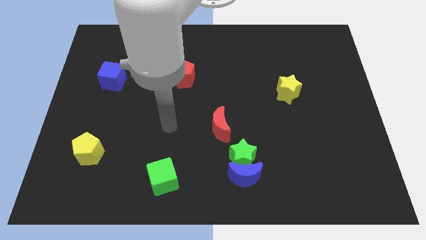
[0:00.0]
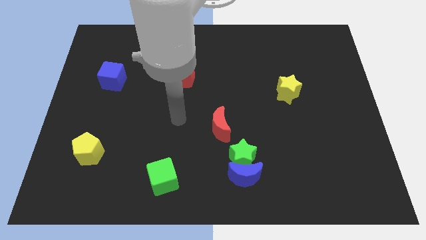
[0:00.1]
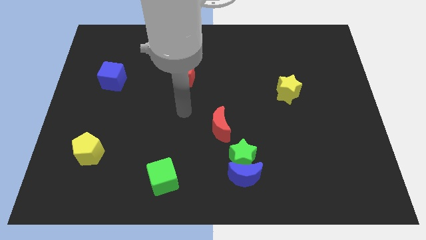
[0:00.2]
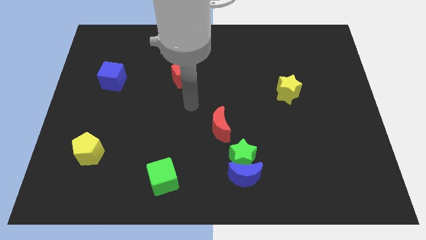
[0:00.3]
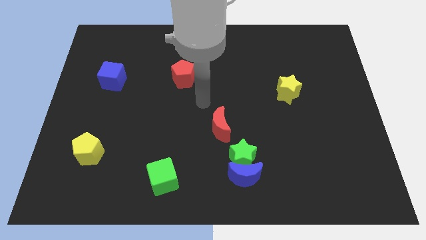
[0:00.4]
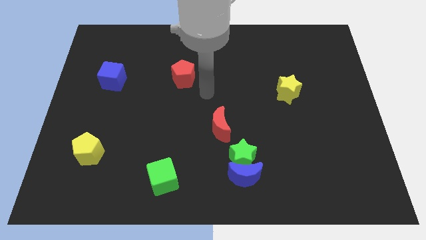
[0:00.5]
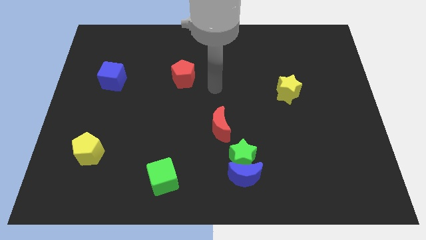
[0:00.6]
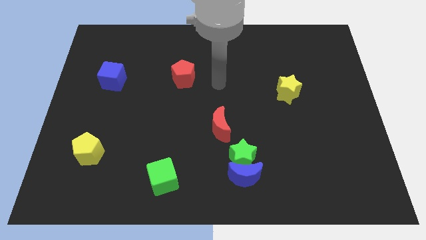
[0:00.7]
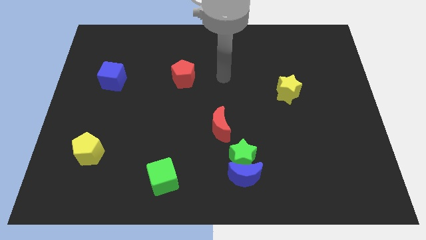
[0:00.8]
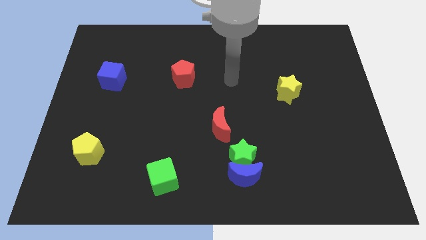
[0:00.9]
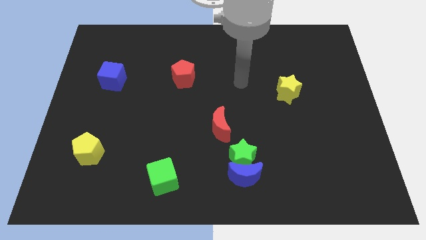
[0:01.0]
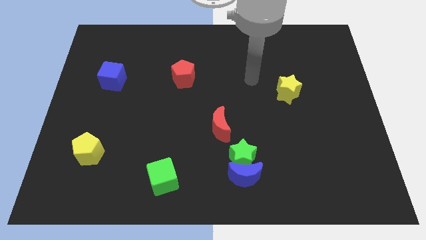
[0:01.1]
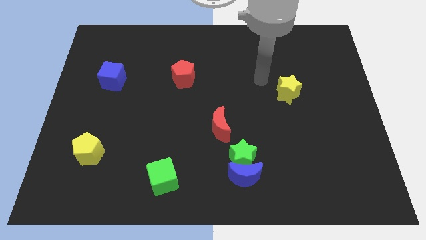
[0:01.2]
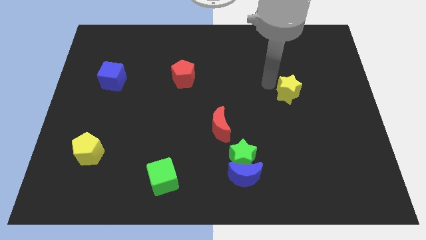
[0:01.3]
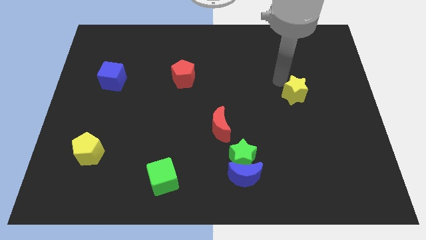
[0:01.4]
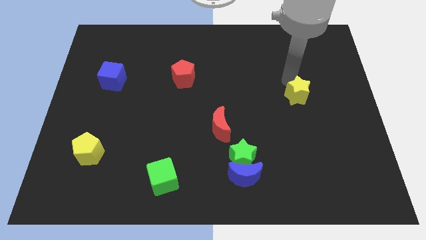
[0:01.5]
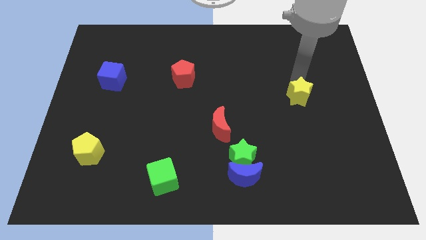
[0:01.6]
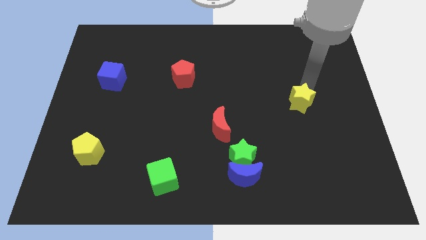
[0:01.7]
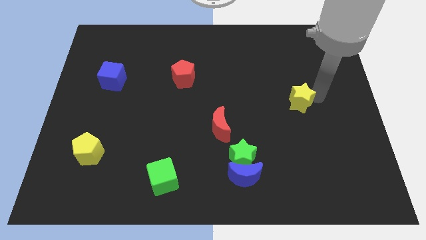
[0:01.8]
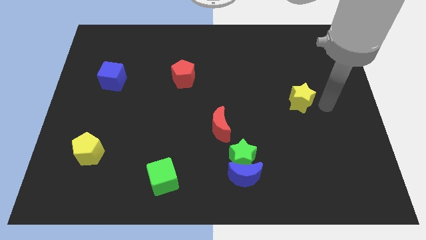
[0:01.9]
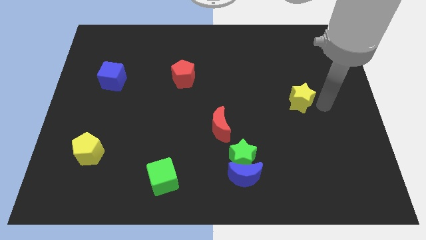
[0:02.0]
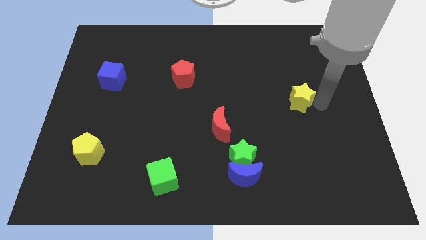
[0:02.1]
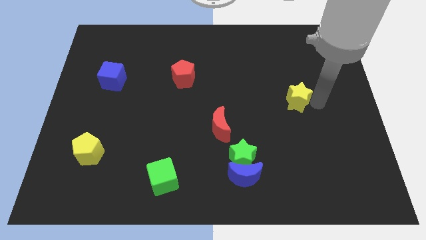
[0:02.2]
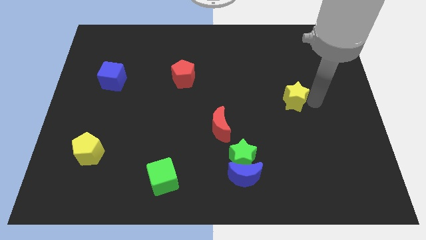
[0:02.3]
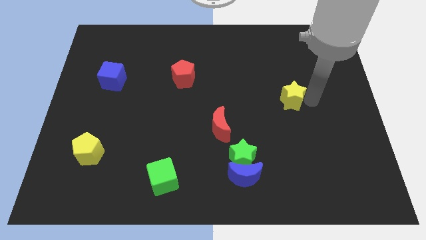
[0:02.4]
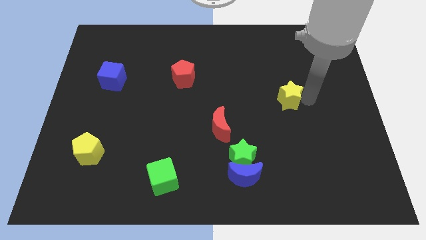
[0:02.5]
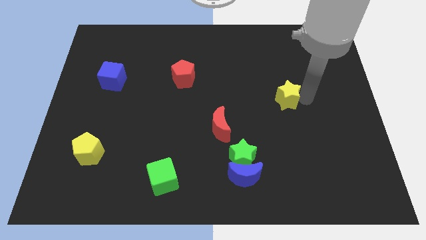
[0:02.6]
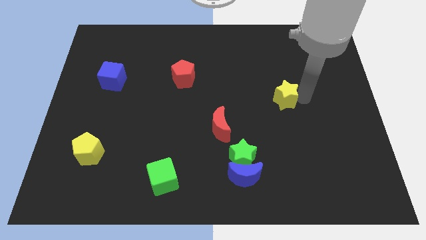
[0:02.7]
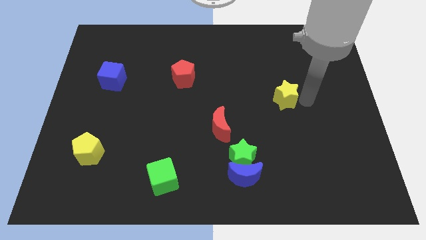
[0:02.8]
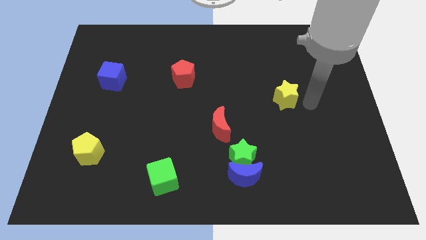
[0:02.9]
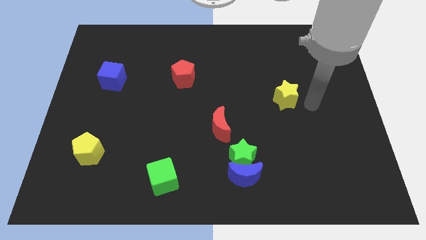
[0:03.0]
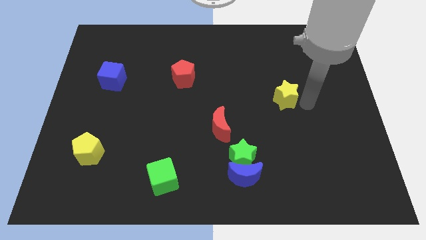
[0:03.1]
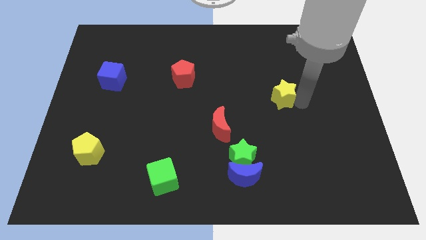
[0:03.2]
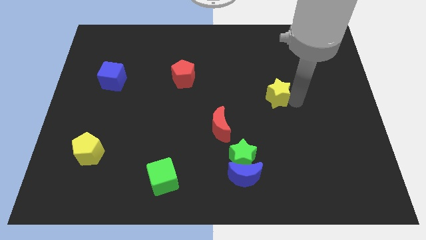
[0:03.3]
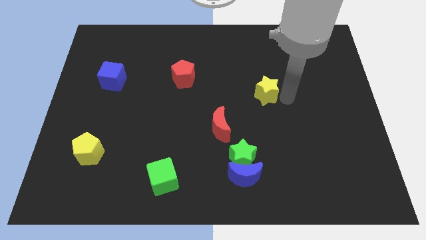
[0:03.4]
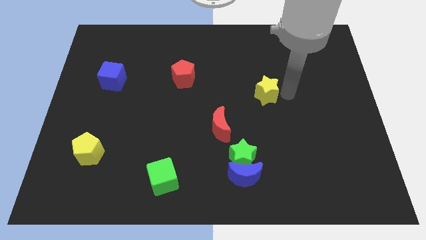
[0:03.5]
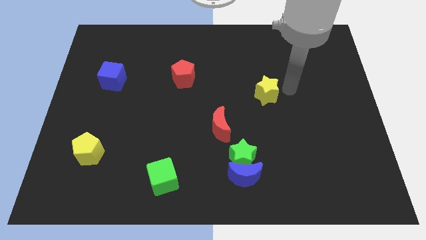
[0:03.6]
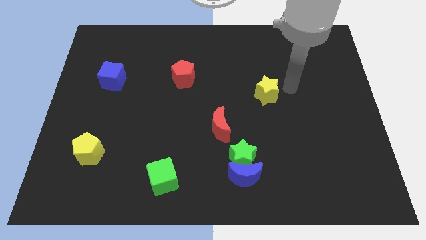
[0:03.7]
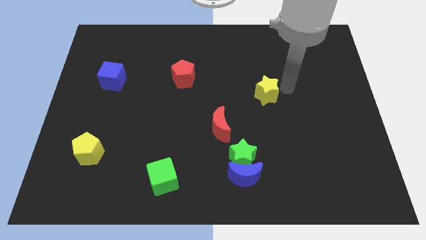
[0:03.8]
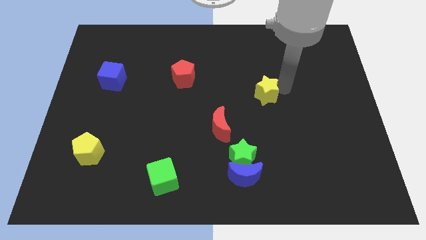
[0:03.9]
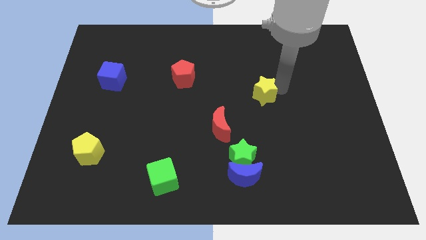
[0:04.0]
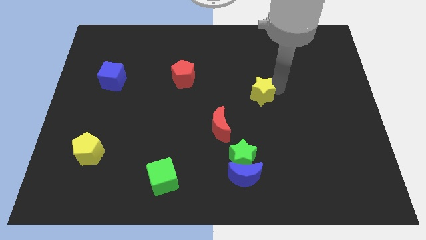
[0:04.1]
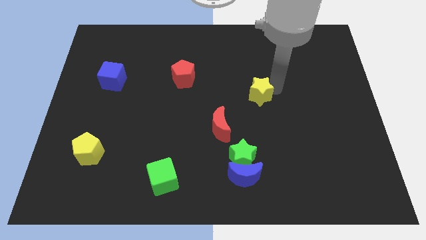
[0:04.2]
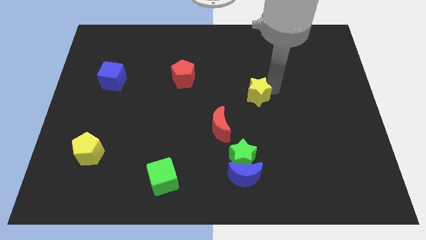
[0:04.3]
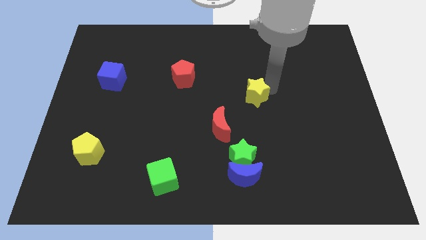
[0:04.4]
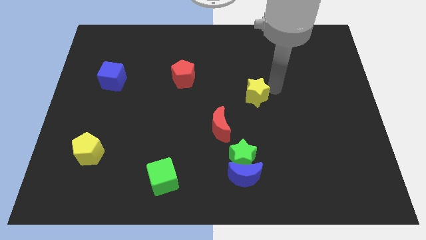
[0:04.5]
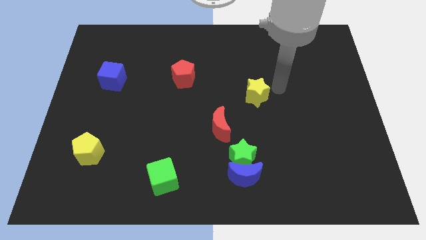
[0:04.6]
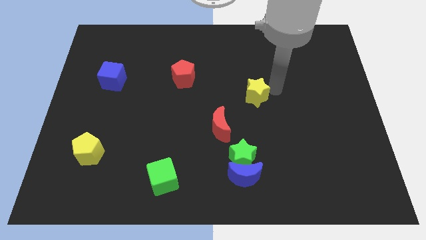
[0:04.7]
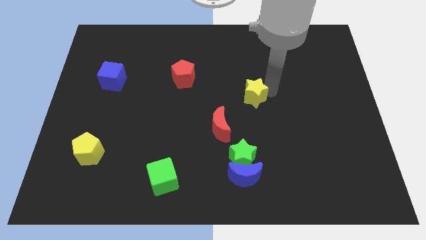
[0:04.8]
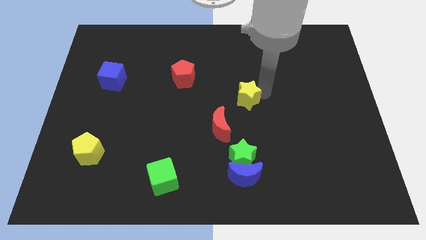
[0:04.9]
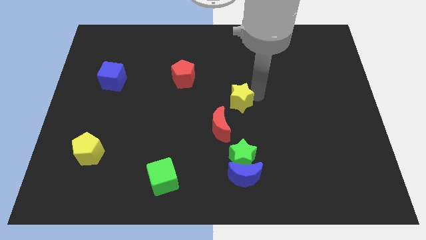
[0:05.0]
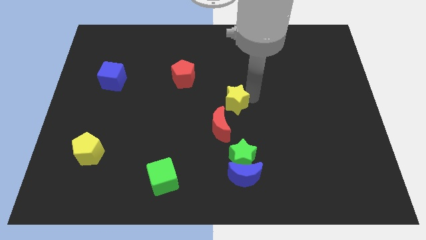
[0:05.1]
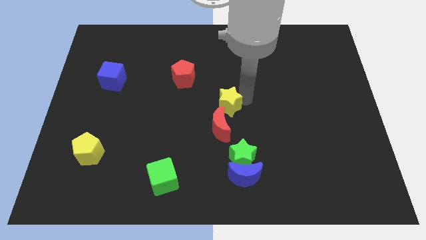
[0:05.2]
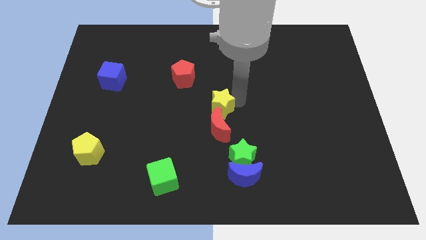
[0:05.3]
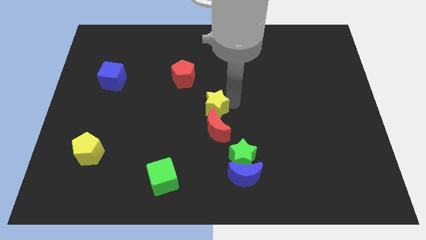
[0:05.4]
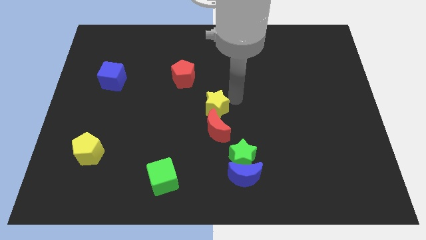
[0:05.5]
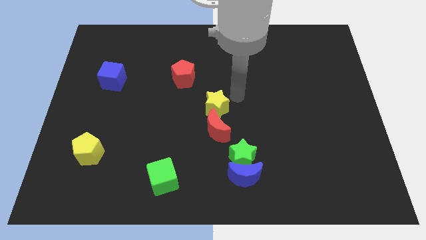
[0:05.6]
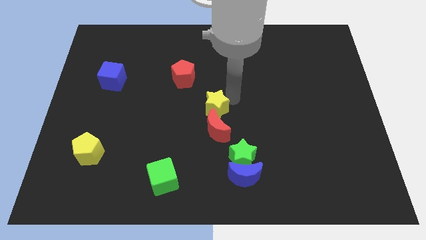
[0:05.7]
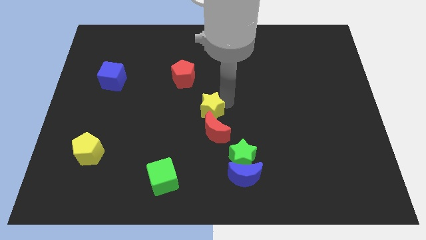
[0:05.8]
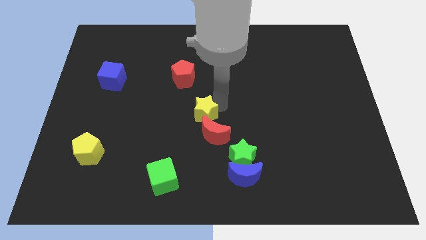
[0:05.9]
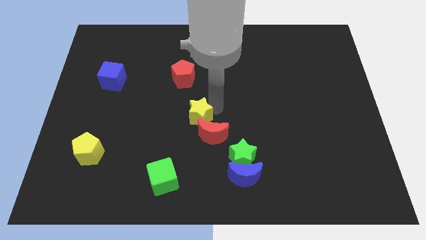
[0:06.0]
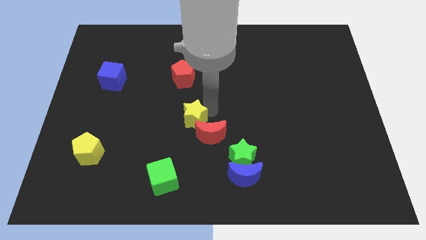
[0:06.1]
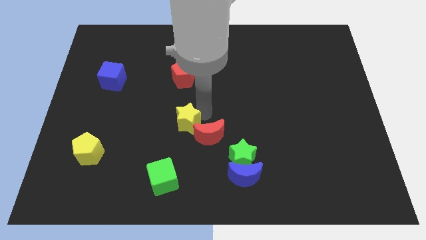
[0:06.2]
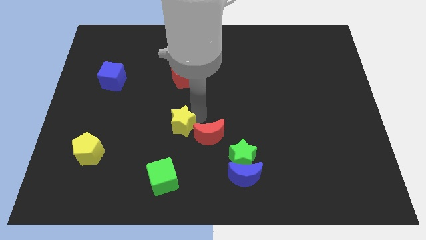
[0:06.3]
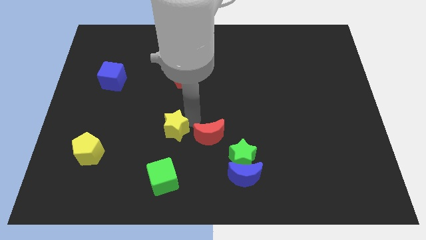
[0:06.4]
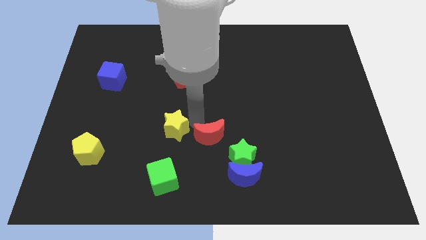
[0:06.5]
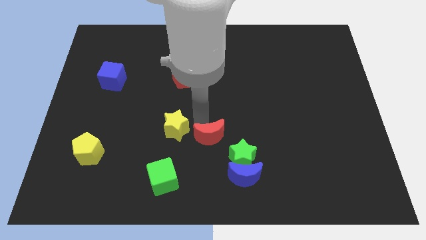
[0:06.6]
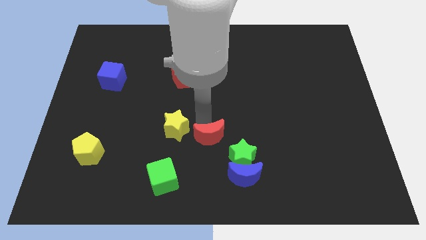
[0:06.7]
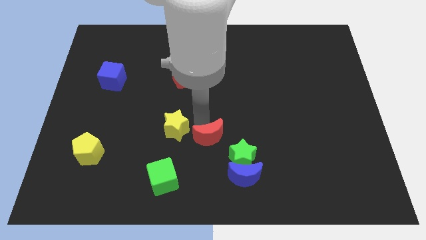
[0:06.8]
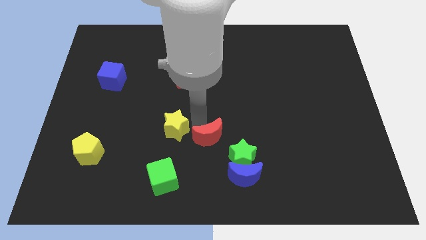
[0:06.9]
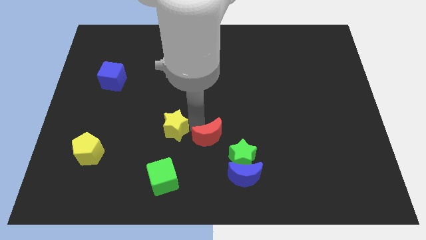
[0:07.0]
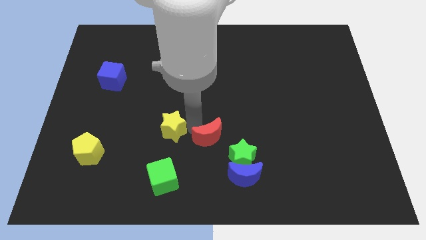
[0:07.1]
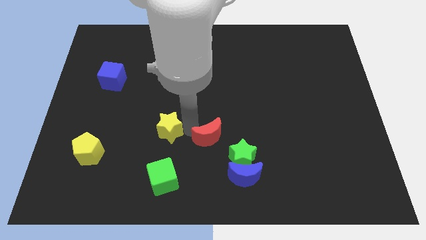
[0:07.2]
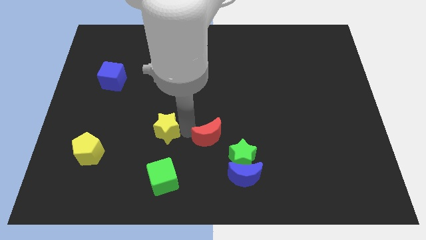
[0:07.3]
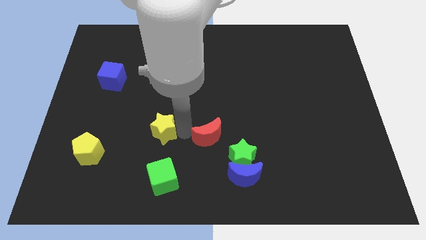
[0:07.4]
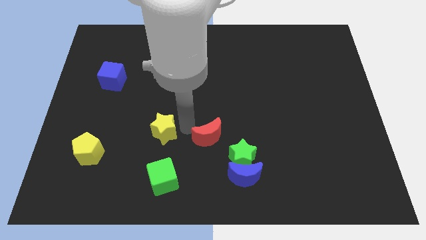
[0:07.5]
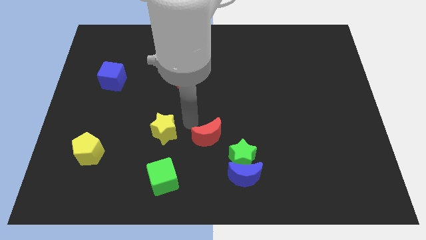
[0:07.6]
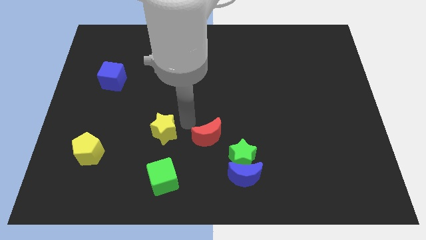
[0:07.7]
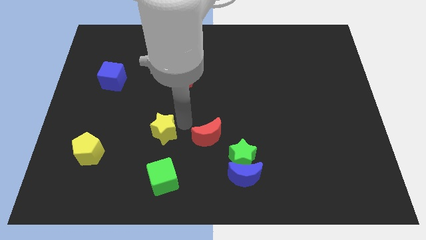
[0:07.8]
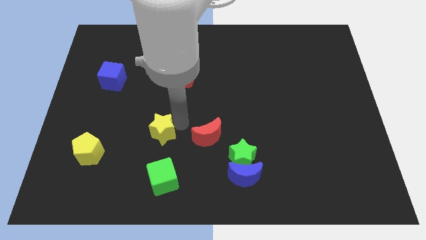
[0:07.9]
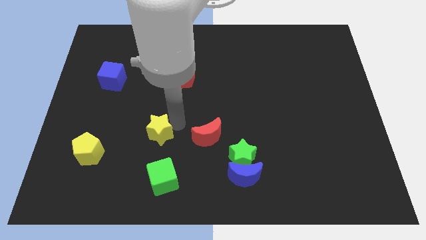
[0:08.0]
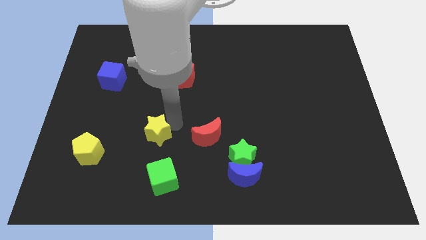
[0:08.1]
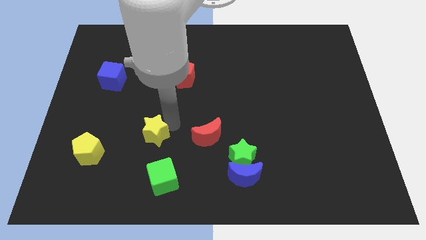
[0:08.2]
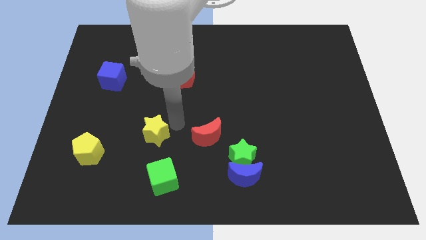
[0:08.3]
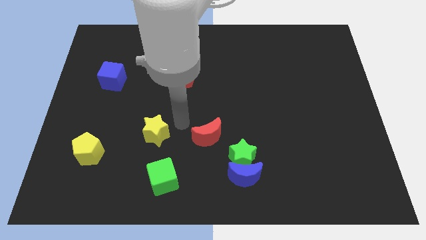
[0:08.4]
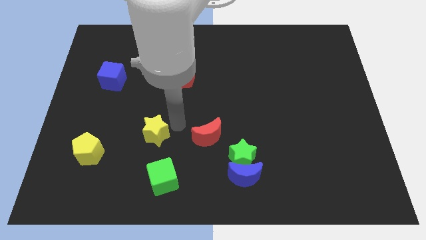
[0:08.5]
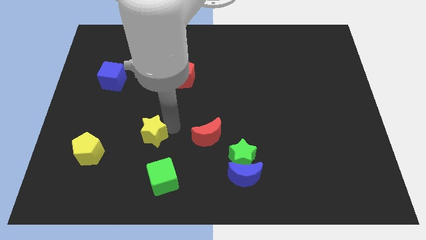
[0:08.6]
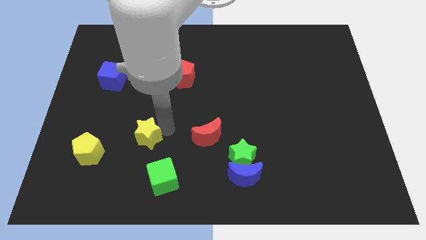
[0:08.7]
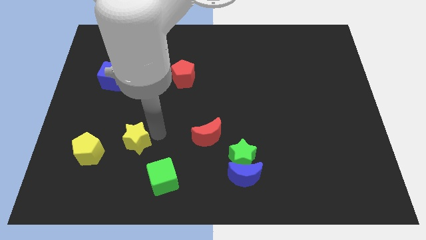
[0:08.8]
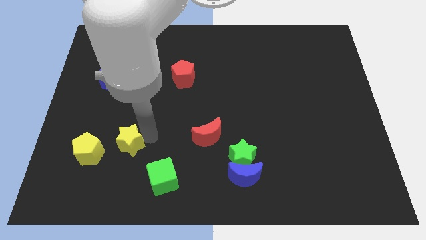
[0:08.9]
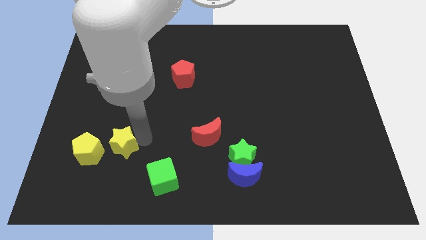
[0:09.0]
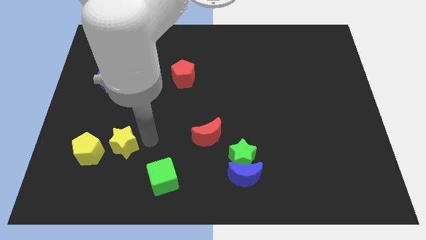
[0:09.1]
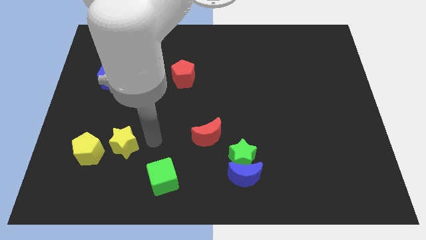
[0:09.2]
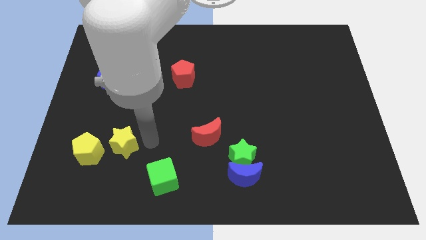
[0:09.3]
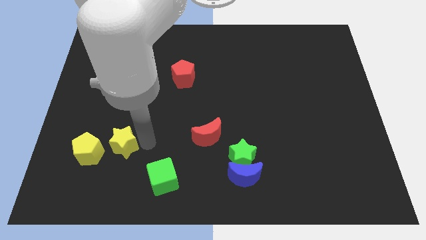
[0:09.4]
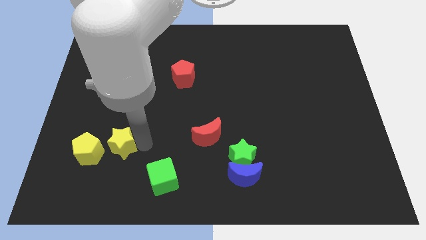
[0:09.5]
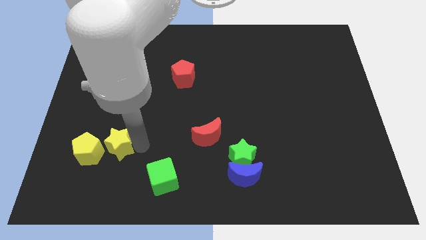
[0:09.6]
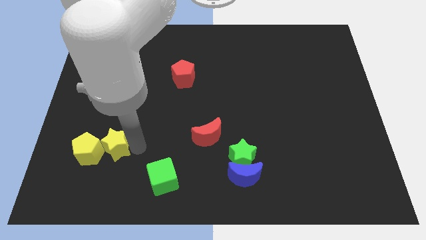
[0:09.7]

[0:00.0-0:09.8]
slide the yellow star close to the yellow pentagon
